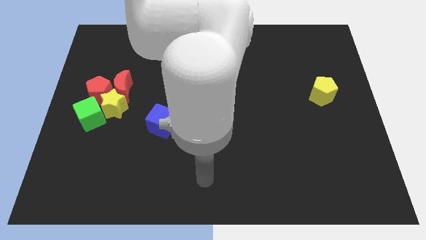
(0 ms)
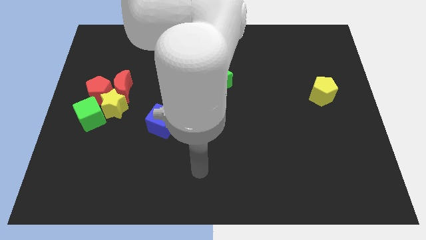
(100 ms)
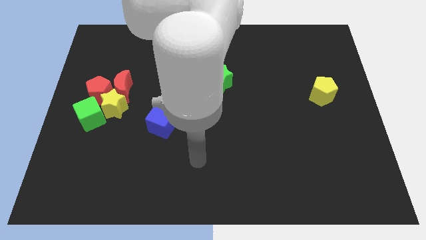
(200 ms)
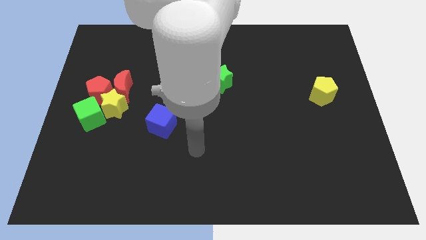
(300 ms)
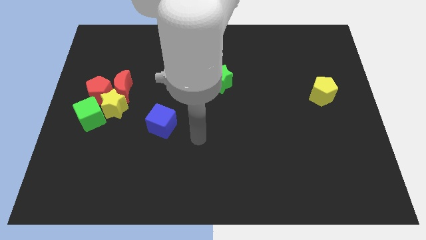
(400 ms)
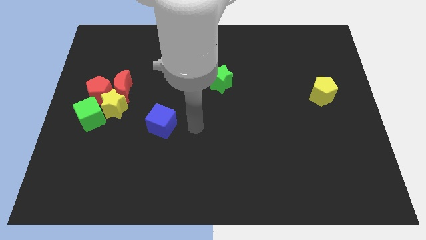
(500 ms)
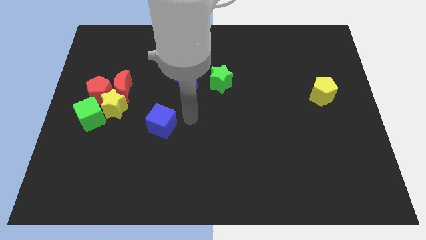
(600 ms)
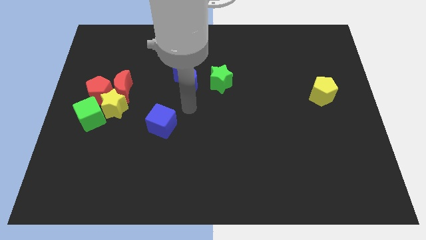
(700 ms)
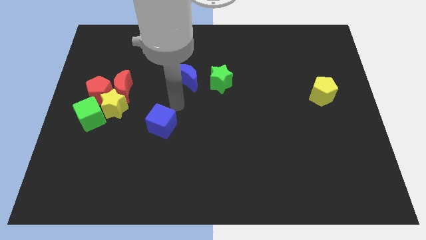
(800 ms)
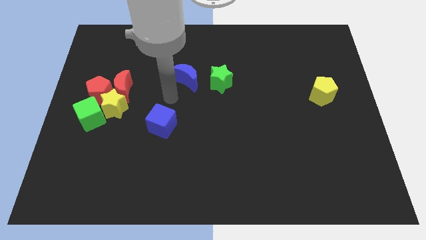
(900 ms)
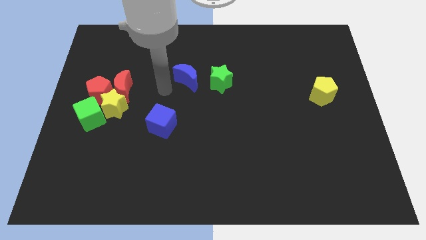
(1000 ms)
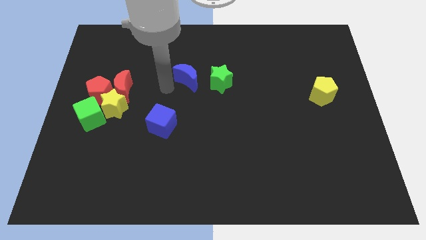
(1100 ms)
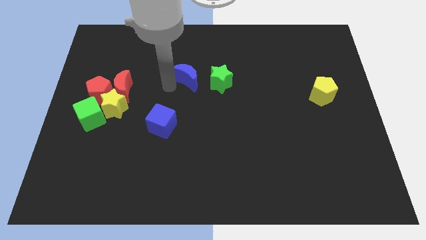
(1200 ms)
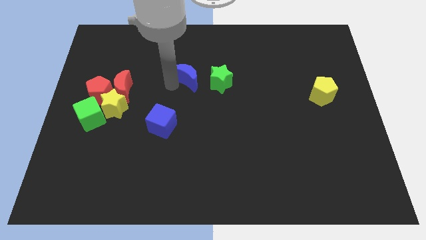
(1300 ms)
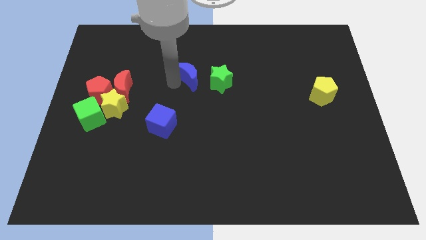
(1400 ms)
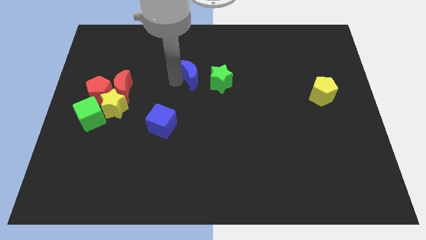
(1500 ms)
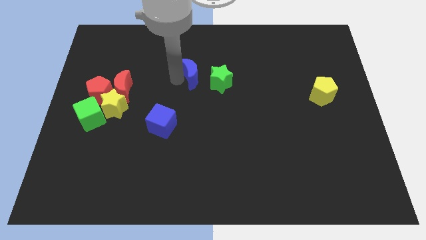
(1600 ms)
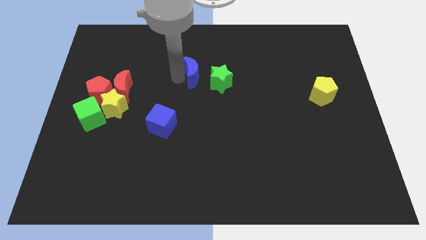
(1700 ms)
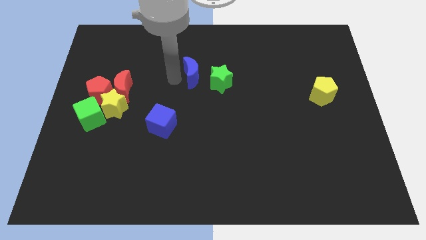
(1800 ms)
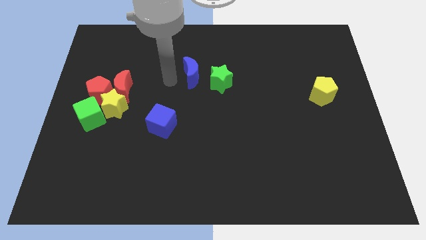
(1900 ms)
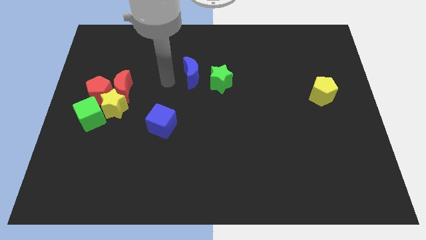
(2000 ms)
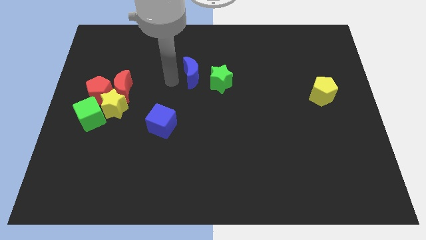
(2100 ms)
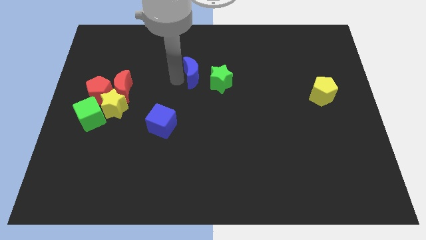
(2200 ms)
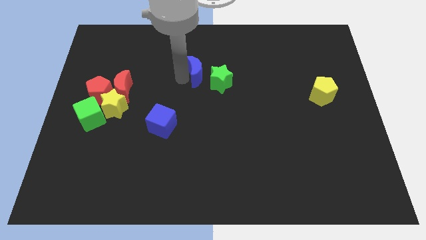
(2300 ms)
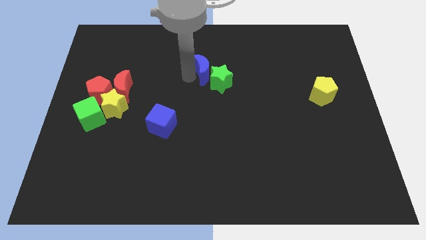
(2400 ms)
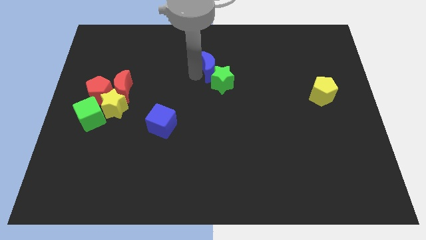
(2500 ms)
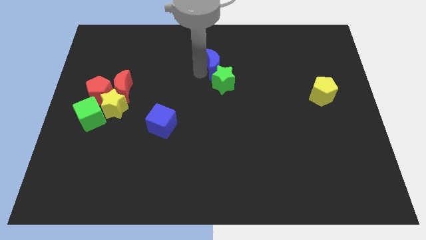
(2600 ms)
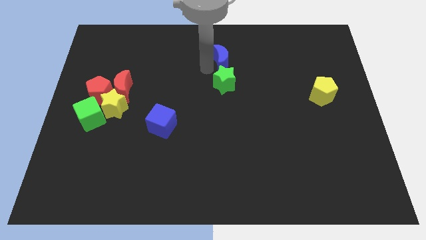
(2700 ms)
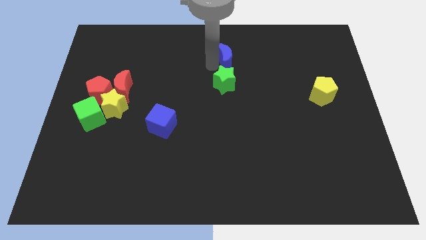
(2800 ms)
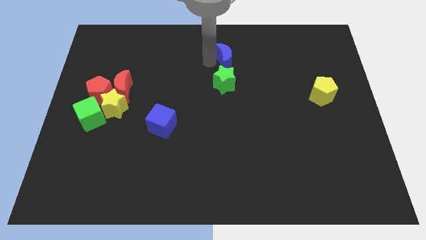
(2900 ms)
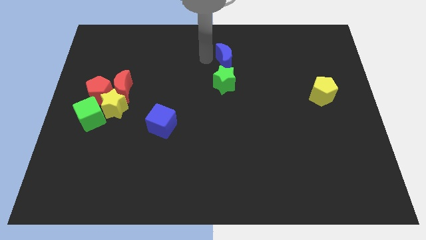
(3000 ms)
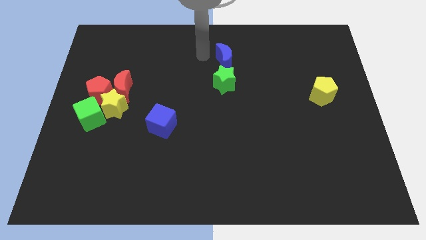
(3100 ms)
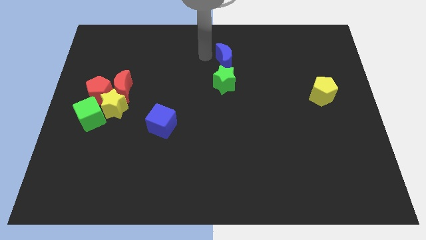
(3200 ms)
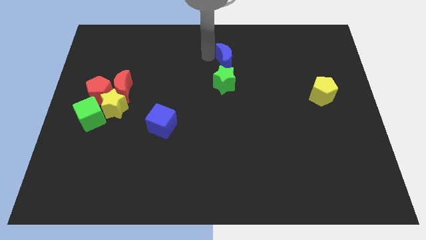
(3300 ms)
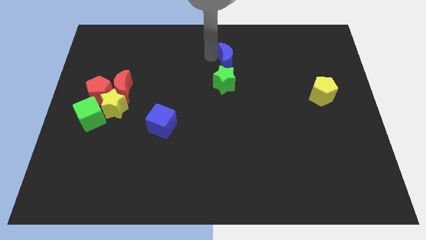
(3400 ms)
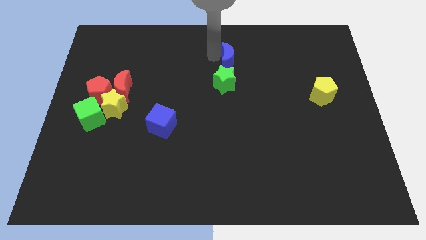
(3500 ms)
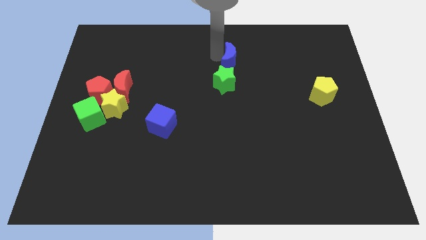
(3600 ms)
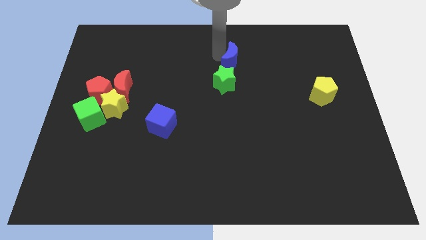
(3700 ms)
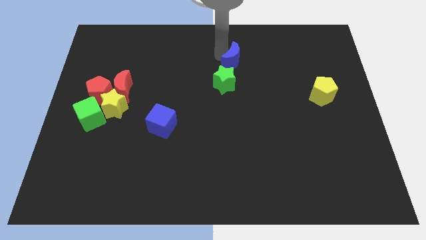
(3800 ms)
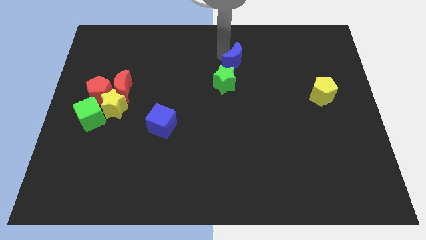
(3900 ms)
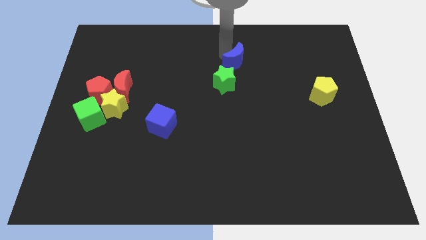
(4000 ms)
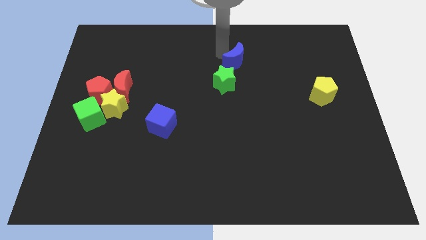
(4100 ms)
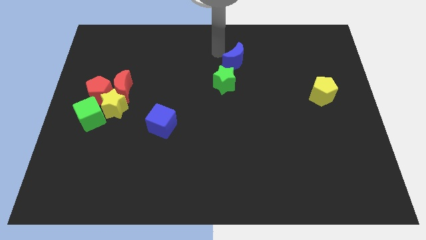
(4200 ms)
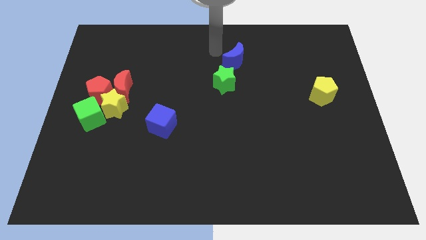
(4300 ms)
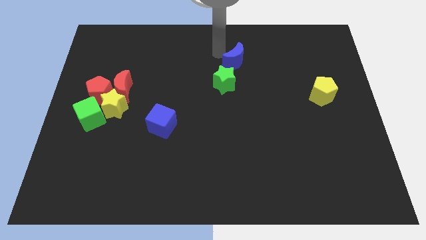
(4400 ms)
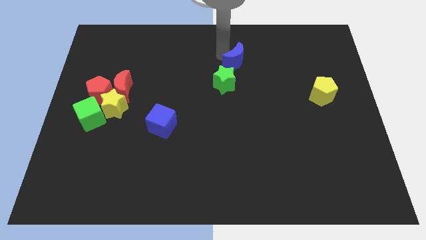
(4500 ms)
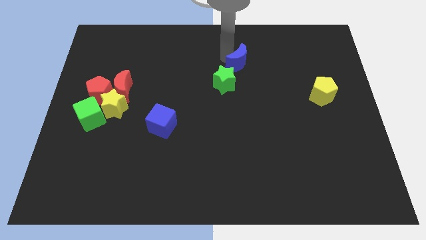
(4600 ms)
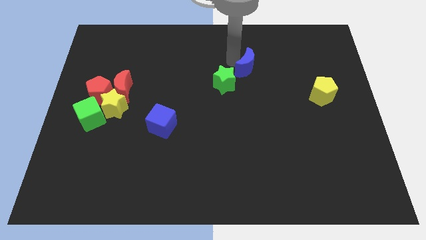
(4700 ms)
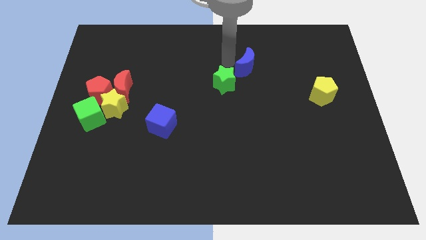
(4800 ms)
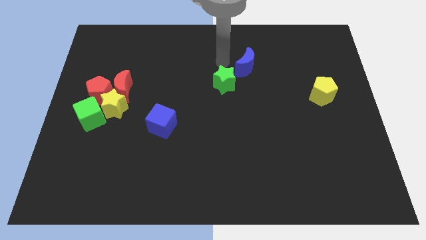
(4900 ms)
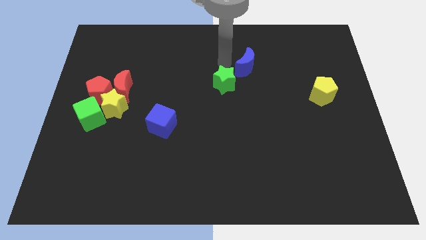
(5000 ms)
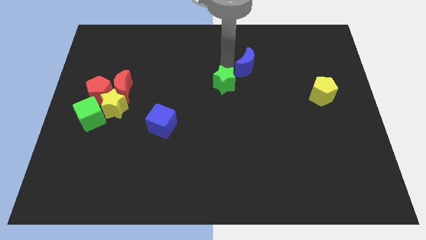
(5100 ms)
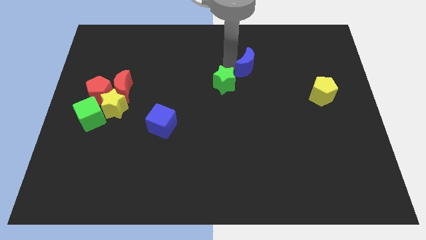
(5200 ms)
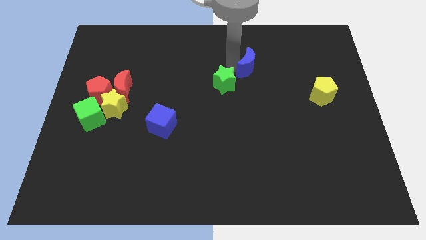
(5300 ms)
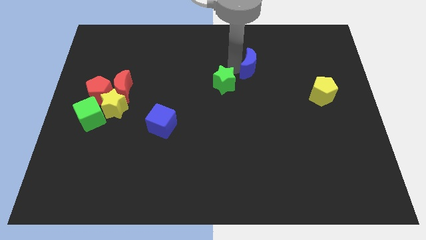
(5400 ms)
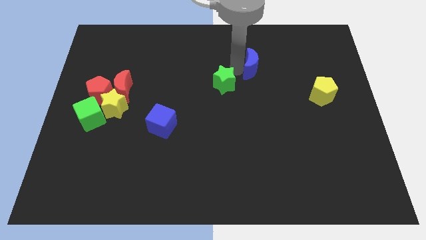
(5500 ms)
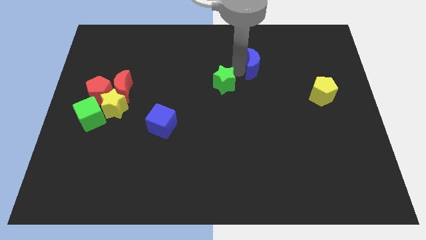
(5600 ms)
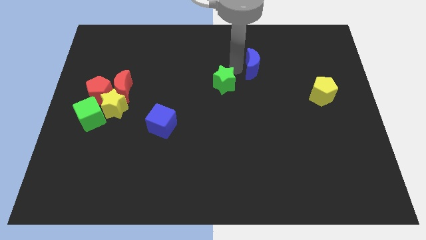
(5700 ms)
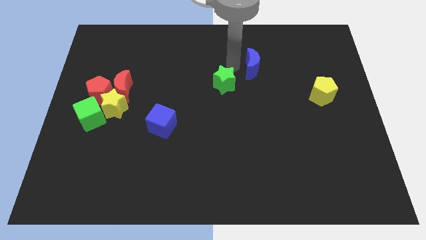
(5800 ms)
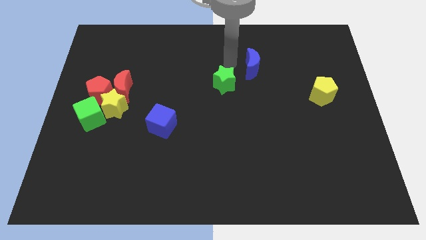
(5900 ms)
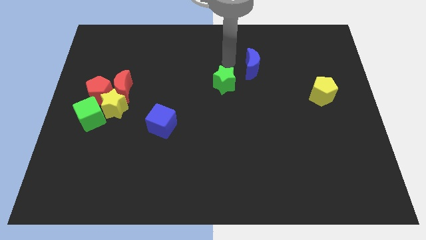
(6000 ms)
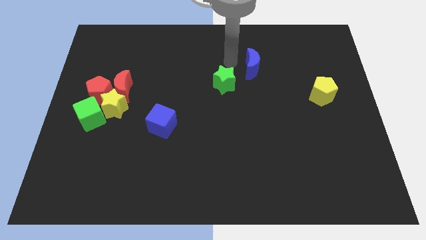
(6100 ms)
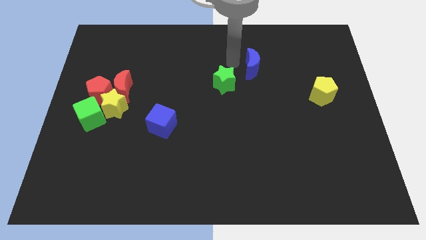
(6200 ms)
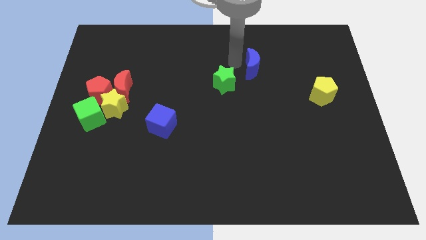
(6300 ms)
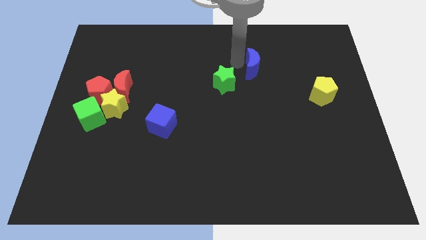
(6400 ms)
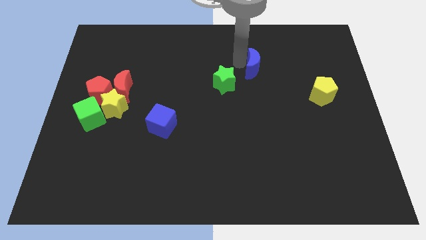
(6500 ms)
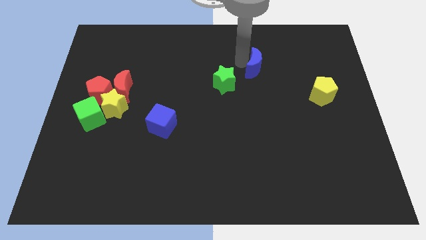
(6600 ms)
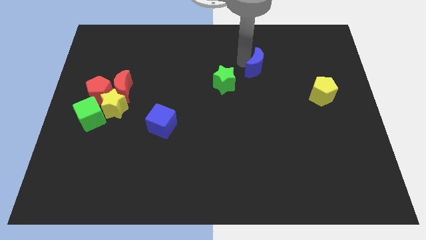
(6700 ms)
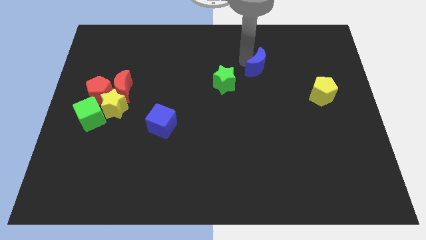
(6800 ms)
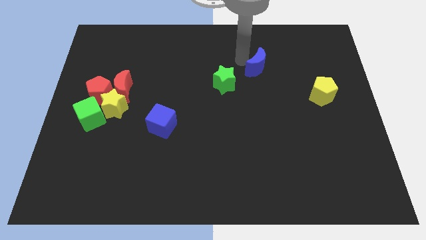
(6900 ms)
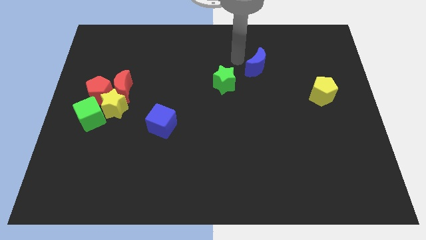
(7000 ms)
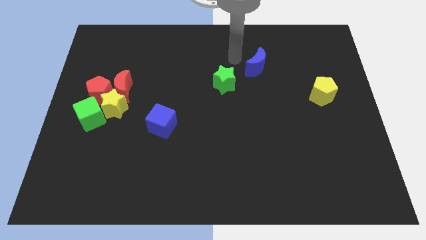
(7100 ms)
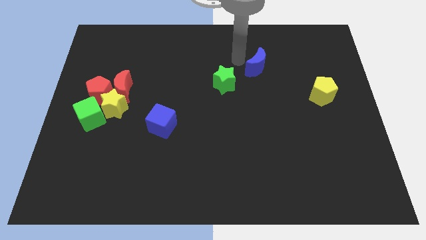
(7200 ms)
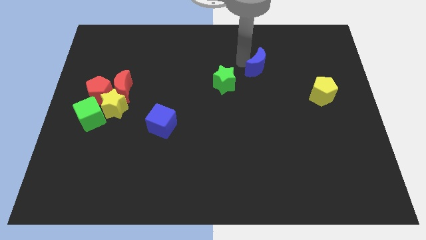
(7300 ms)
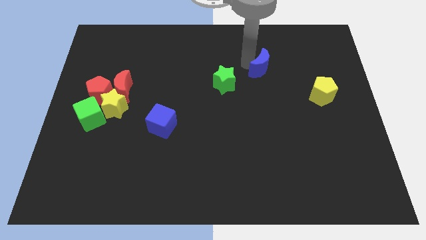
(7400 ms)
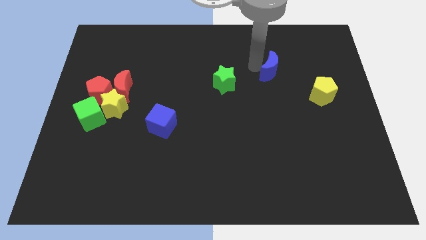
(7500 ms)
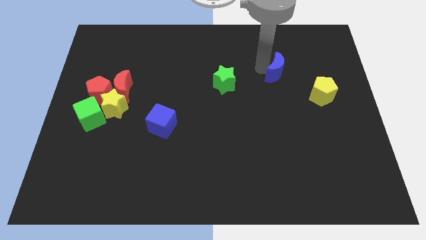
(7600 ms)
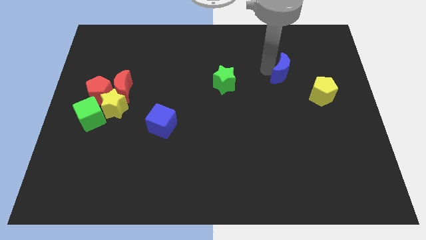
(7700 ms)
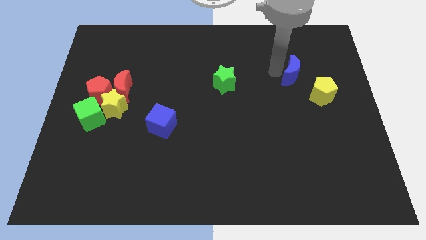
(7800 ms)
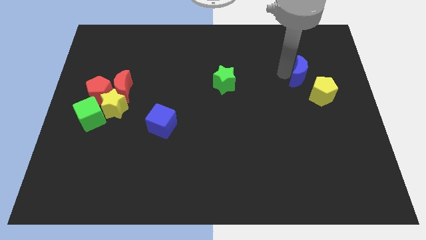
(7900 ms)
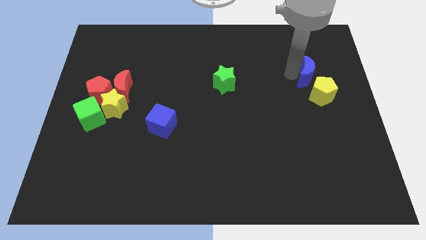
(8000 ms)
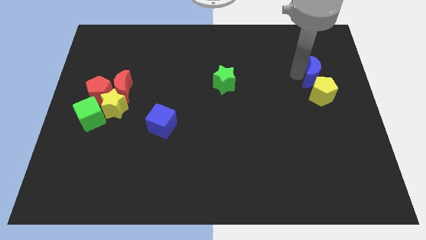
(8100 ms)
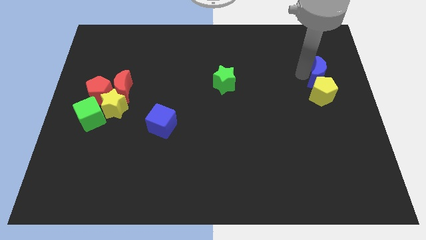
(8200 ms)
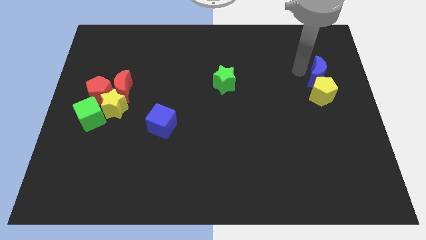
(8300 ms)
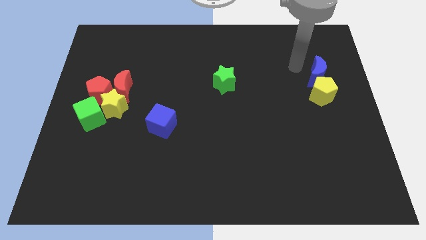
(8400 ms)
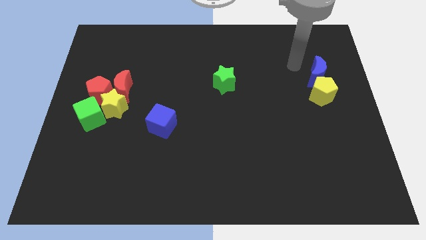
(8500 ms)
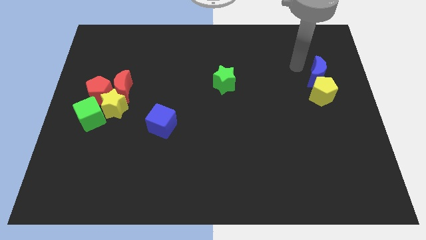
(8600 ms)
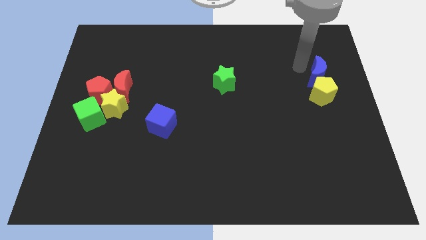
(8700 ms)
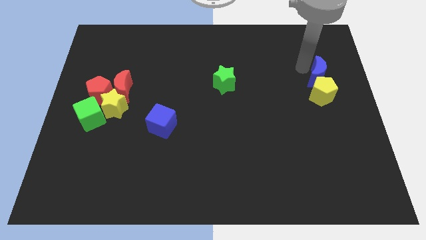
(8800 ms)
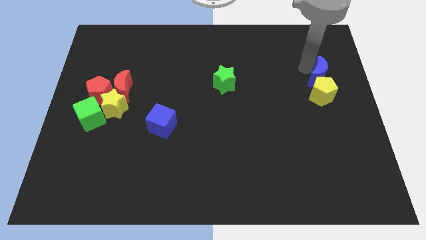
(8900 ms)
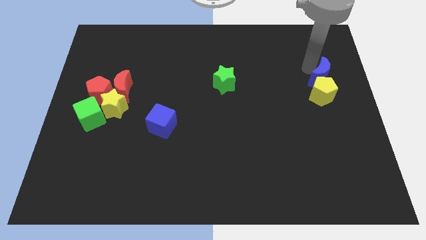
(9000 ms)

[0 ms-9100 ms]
put the blue moon to the right side
